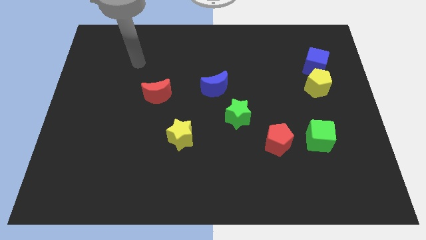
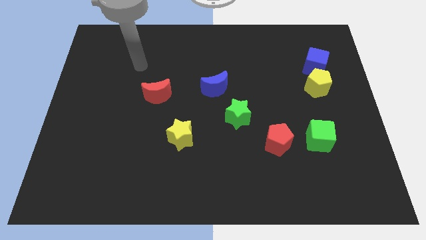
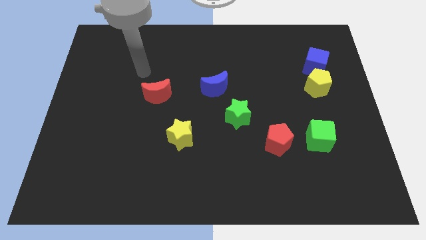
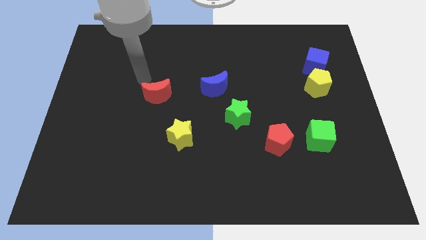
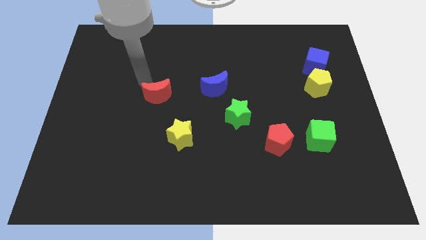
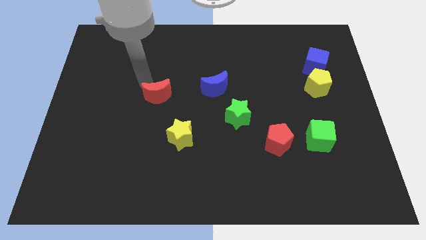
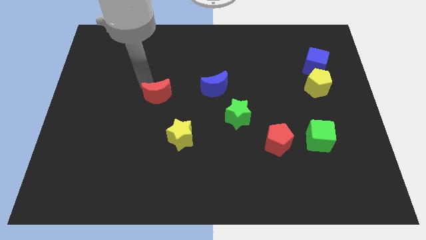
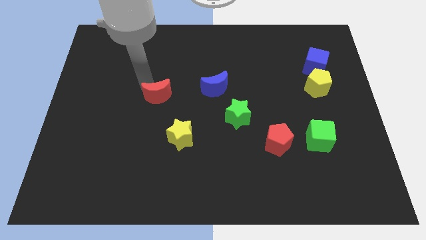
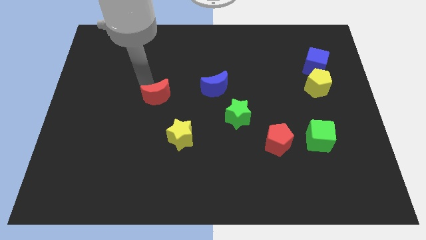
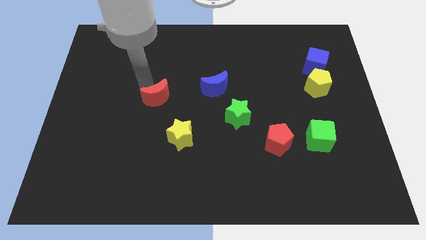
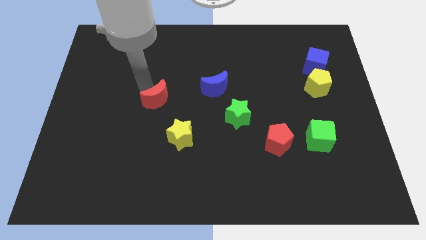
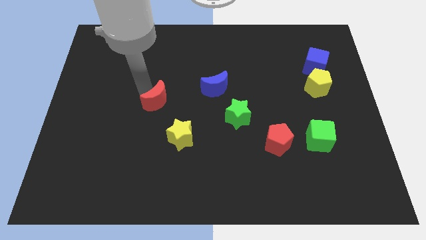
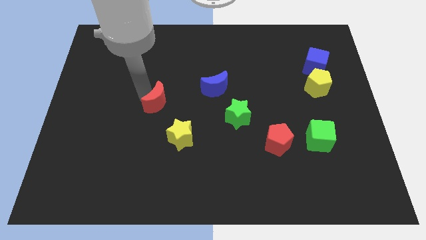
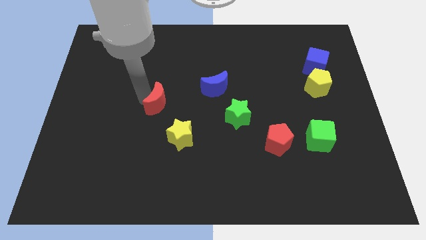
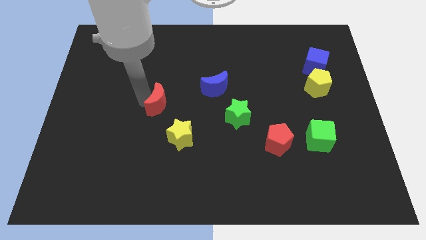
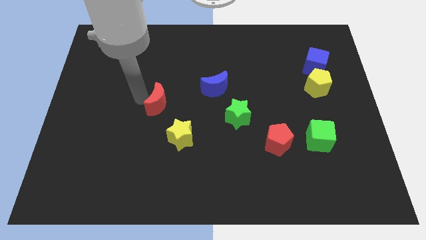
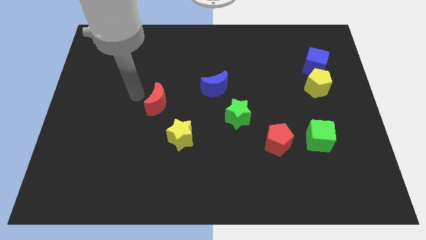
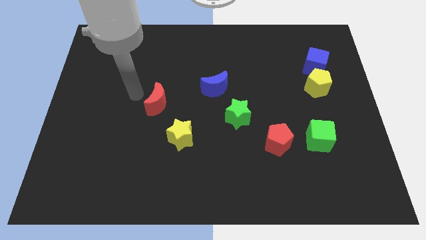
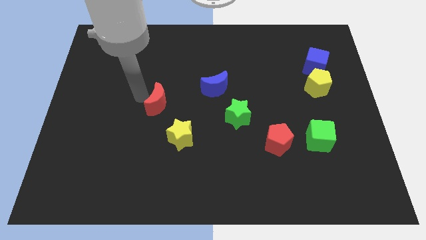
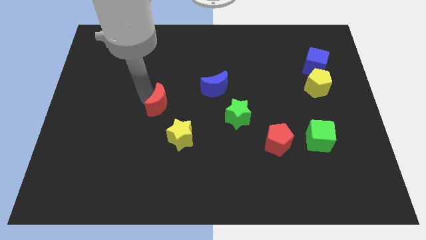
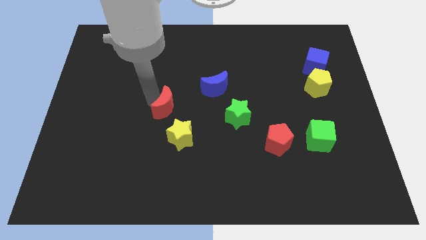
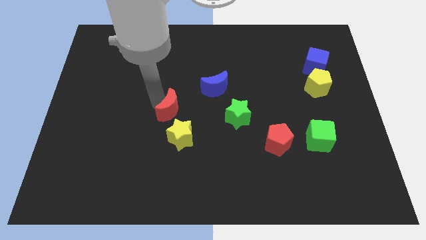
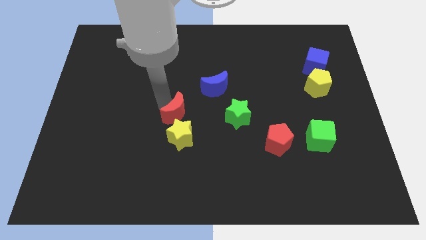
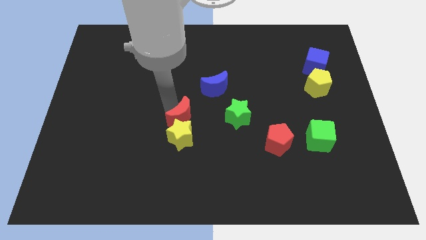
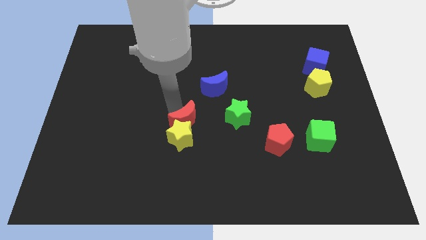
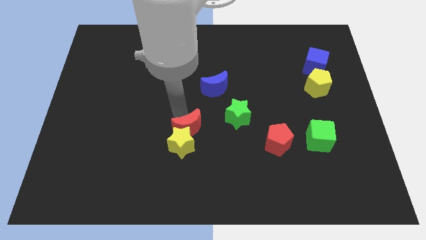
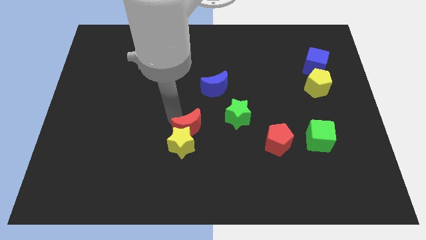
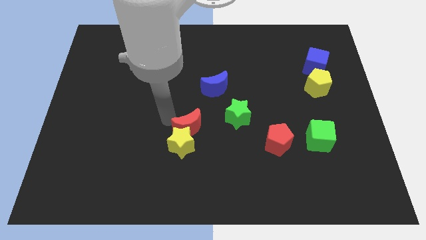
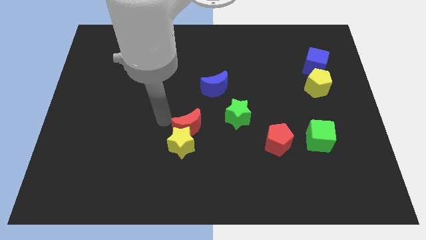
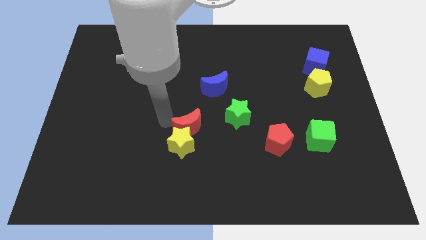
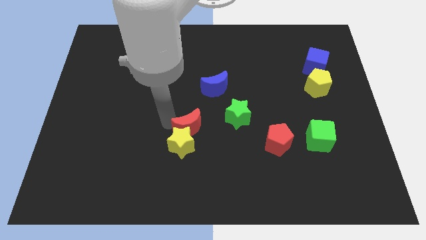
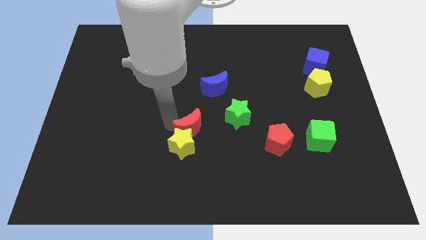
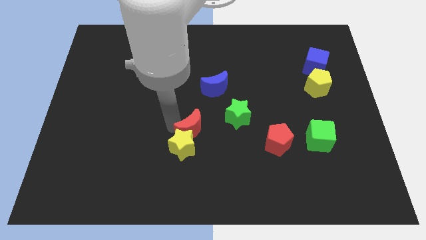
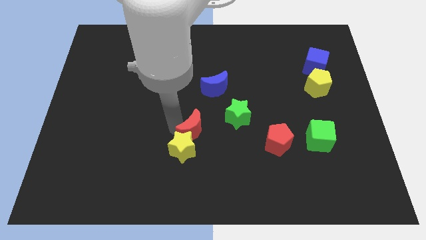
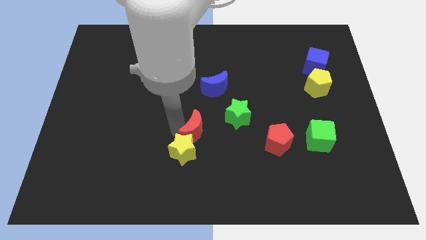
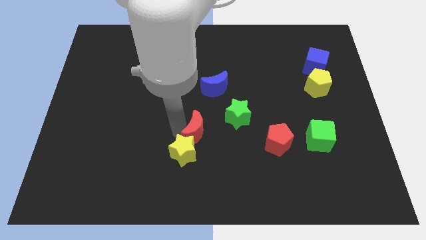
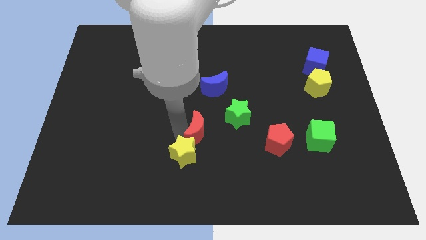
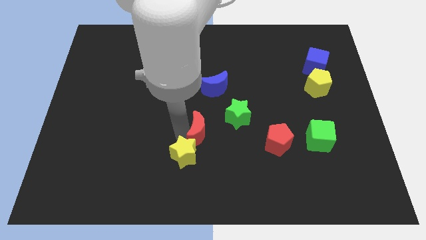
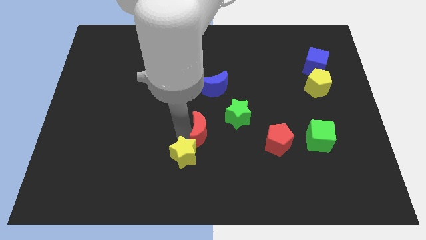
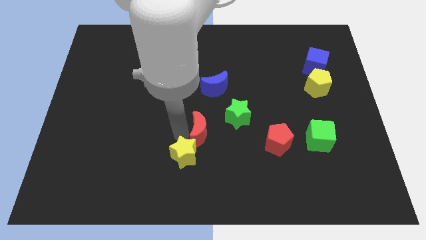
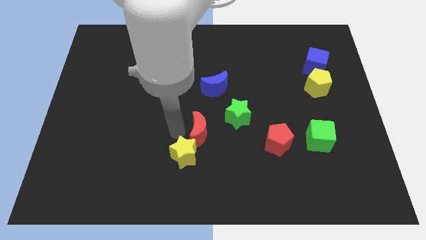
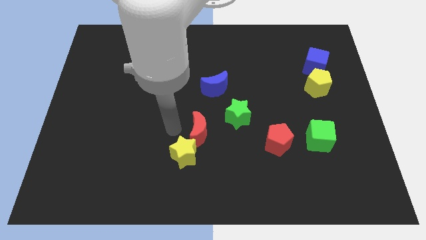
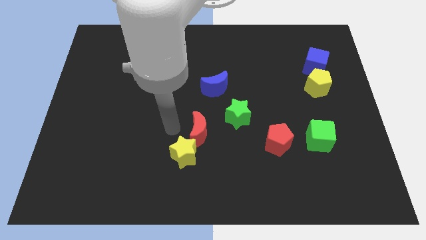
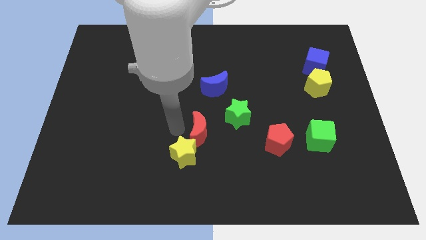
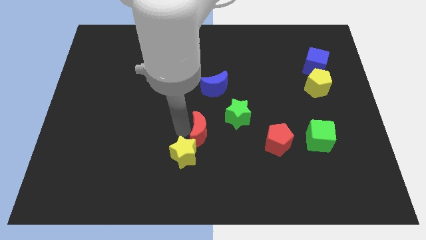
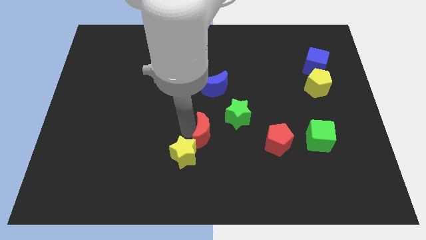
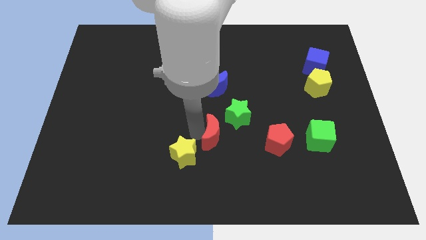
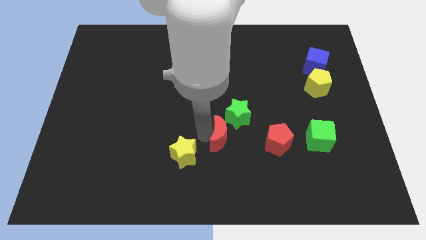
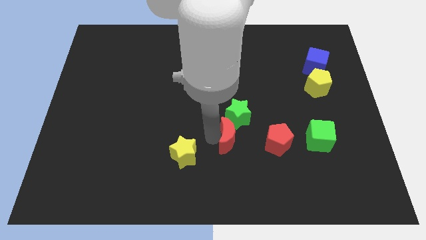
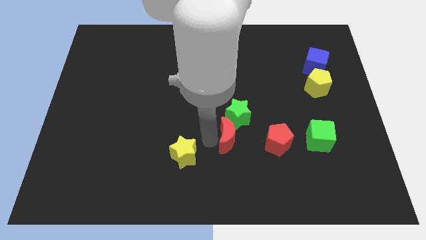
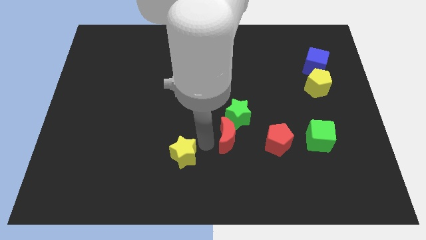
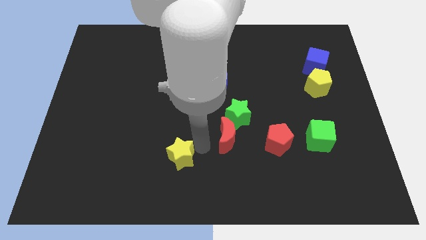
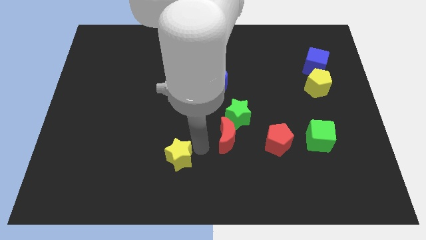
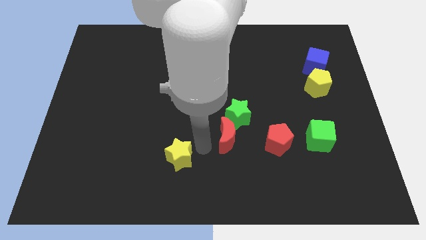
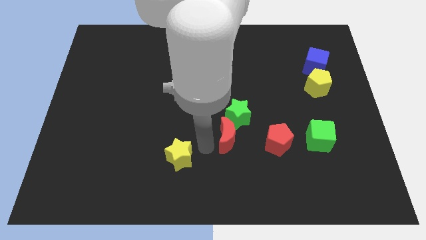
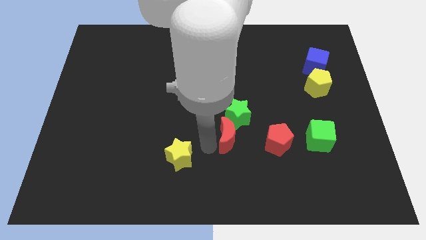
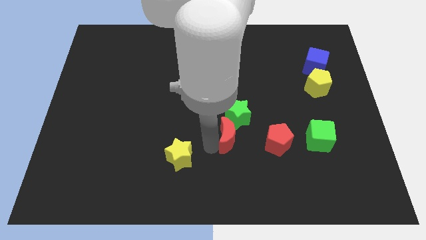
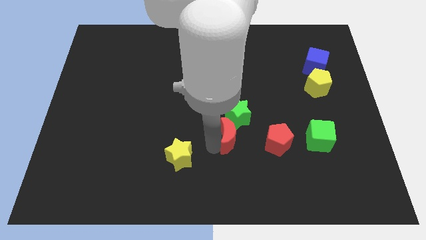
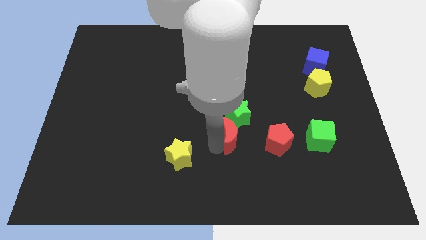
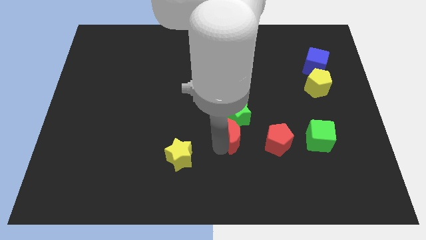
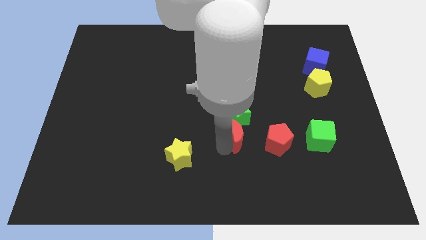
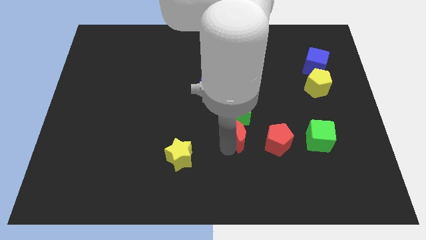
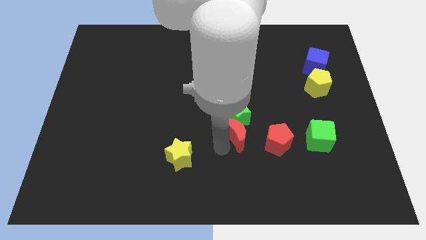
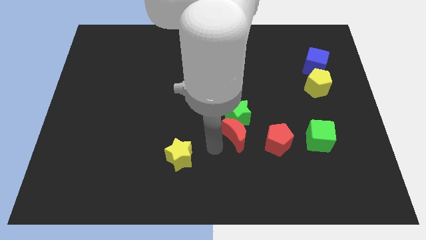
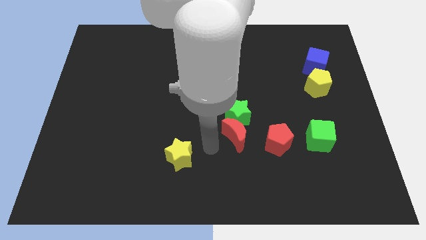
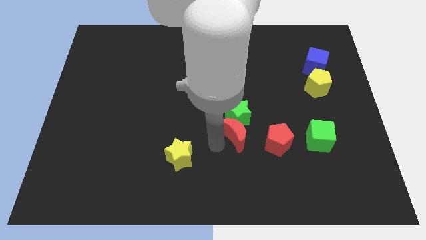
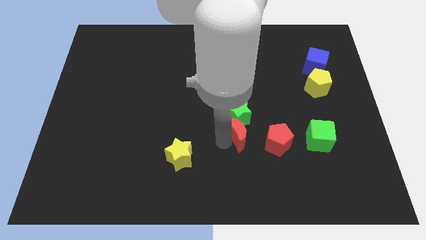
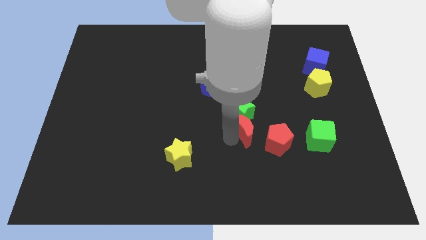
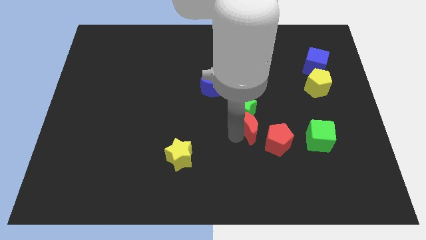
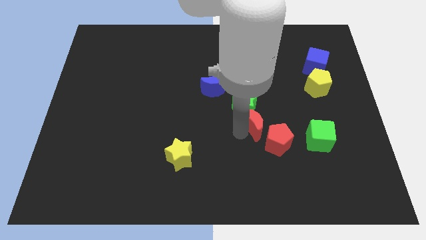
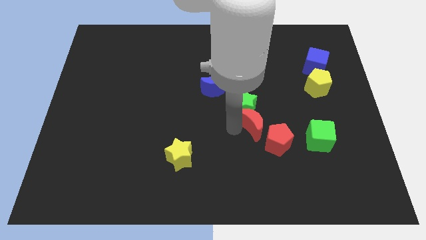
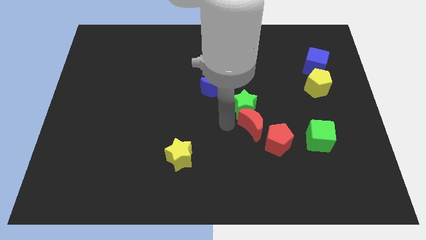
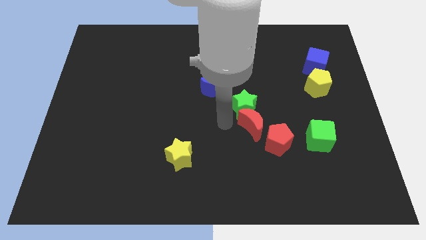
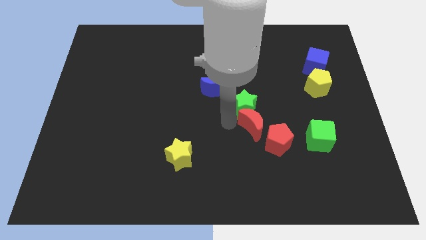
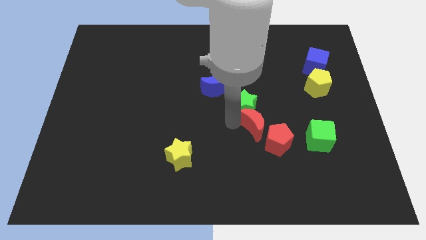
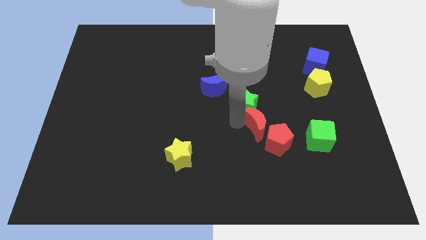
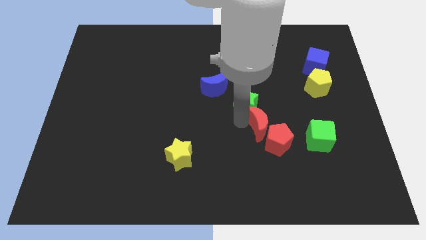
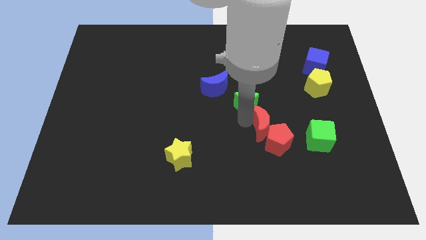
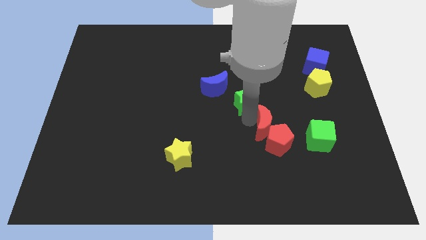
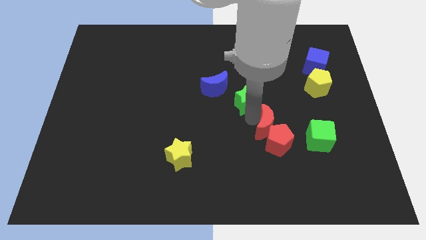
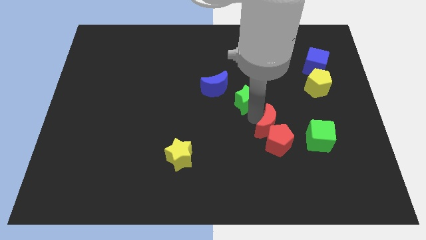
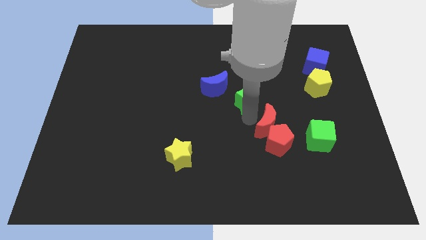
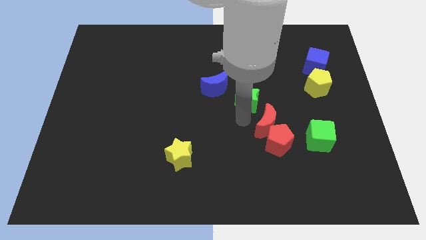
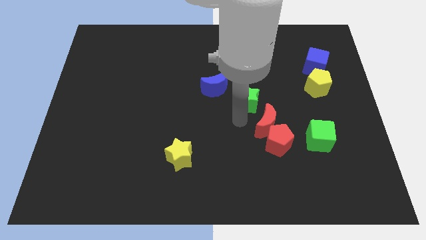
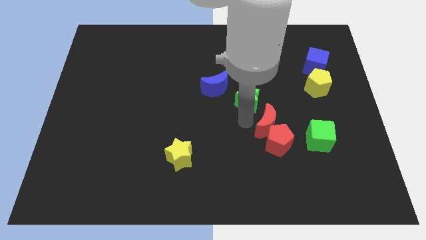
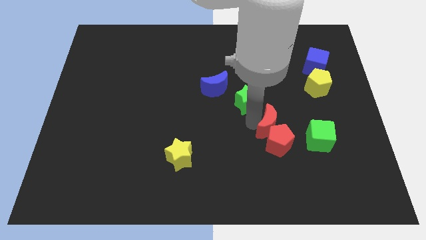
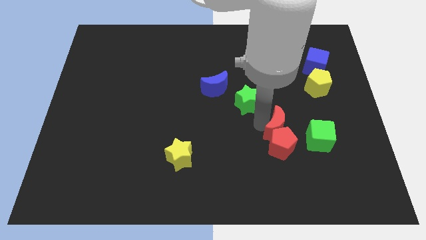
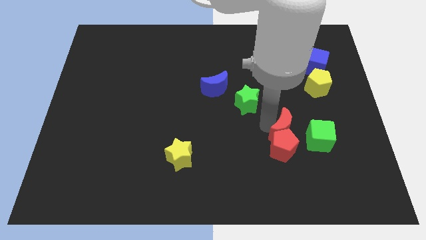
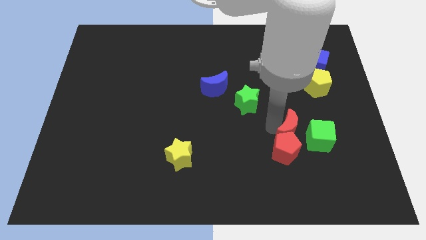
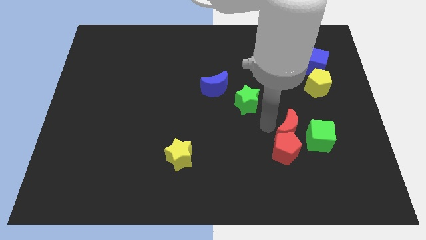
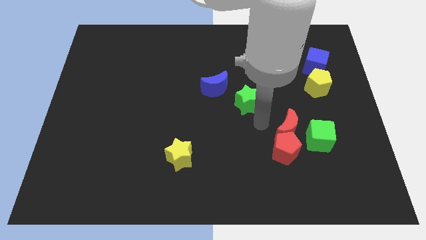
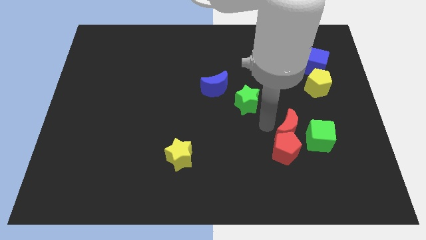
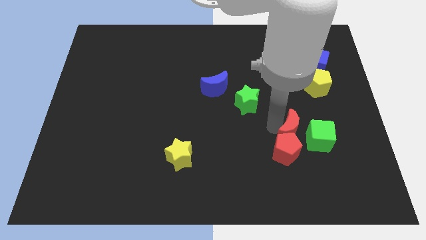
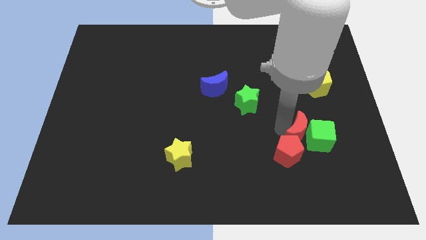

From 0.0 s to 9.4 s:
move the red moon to the green cube
